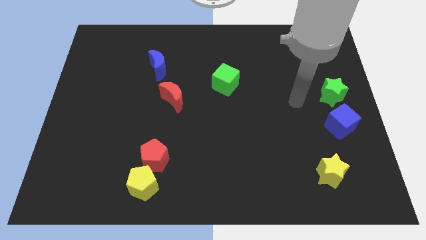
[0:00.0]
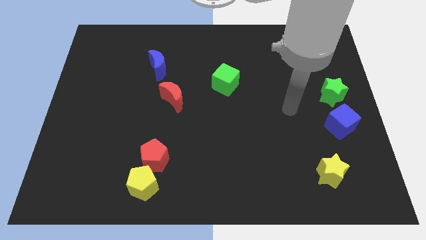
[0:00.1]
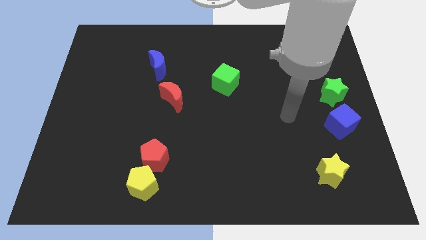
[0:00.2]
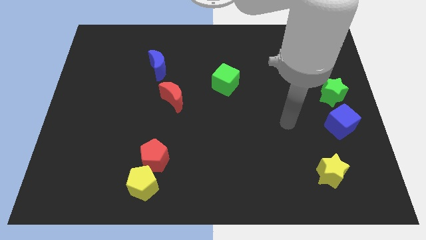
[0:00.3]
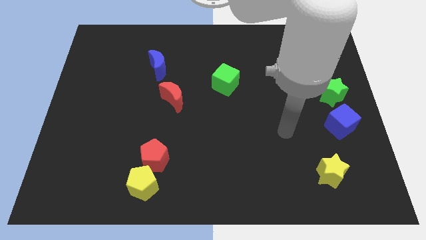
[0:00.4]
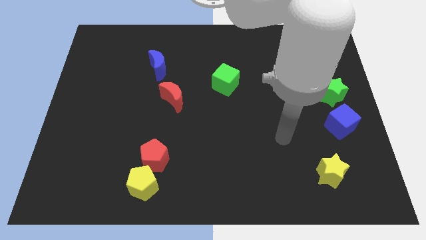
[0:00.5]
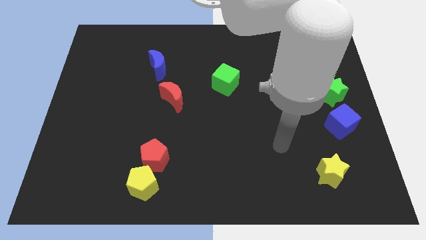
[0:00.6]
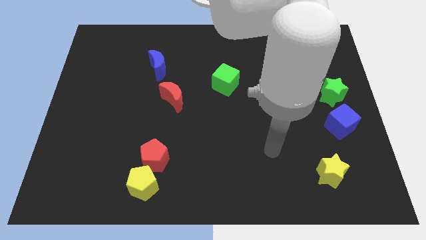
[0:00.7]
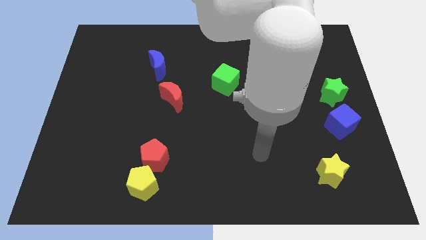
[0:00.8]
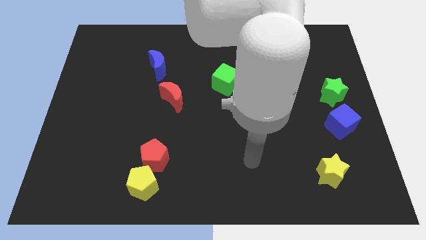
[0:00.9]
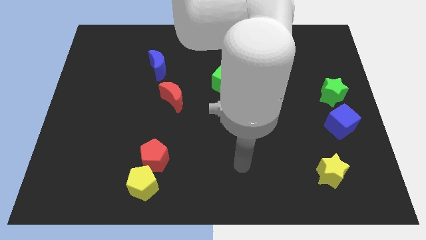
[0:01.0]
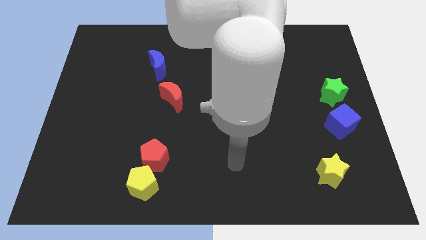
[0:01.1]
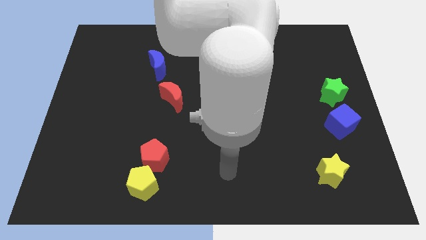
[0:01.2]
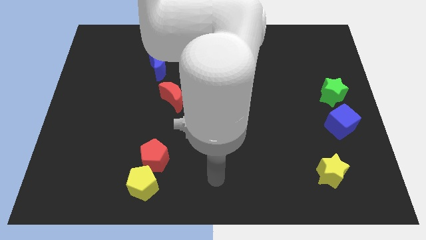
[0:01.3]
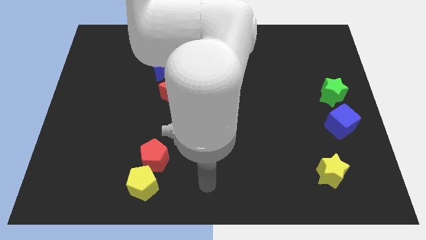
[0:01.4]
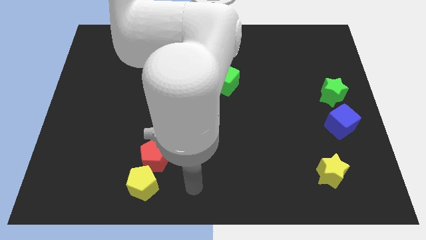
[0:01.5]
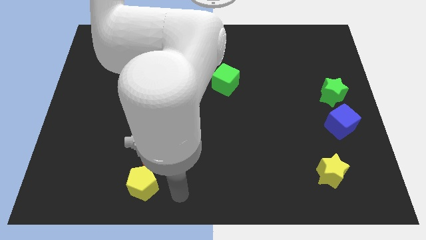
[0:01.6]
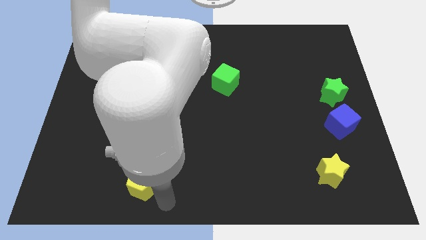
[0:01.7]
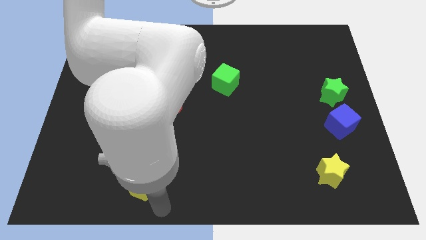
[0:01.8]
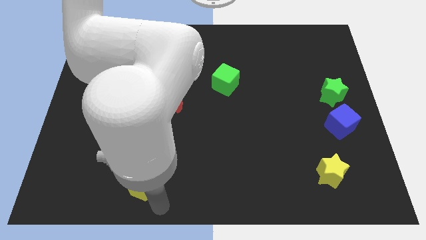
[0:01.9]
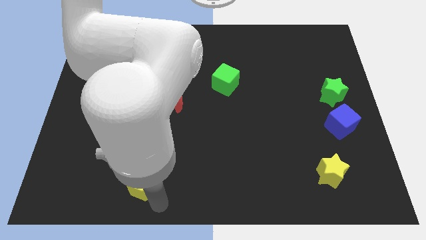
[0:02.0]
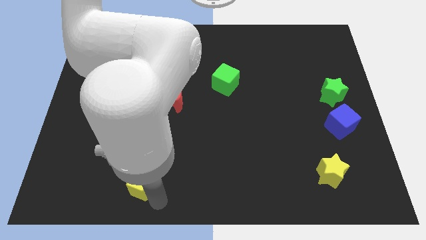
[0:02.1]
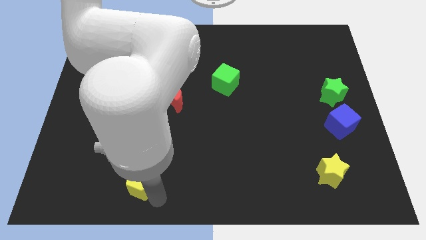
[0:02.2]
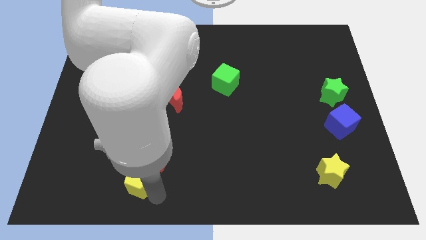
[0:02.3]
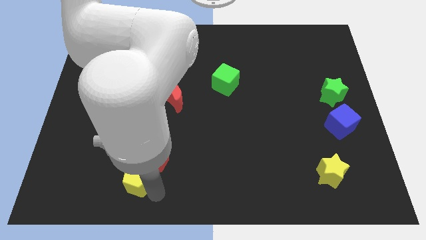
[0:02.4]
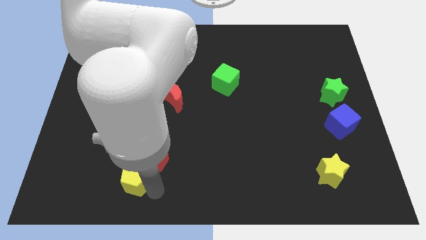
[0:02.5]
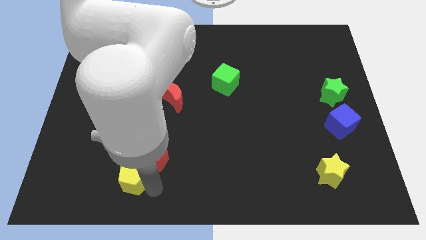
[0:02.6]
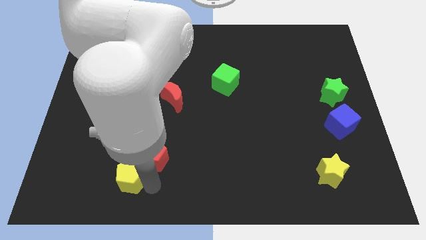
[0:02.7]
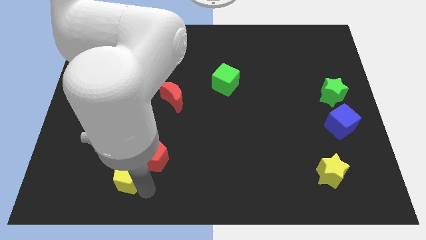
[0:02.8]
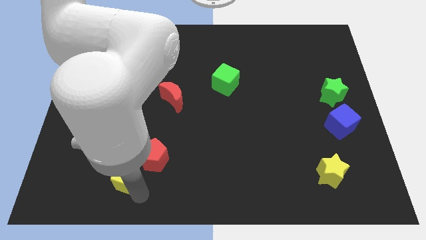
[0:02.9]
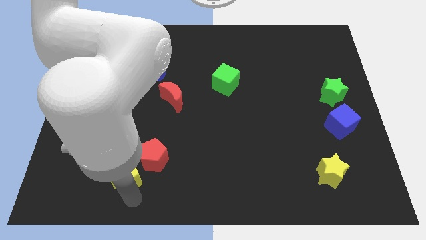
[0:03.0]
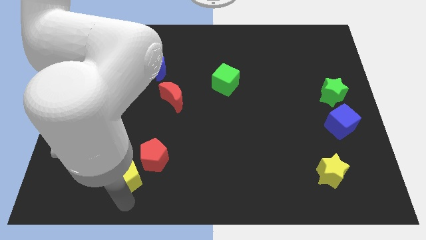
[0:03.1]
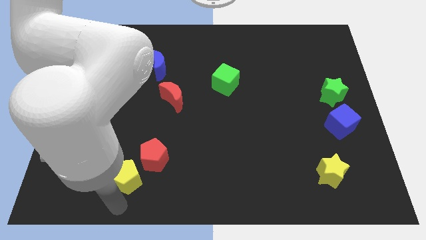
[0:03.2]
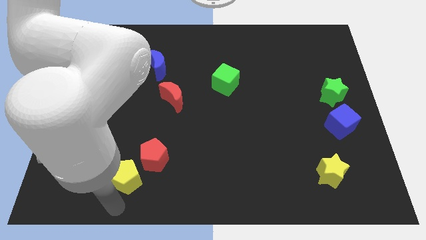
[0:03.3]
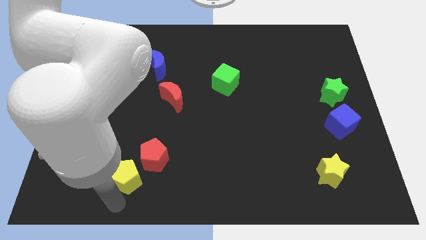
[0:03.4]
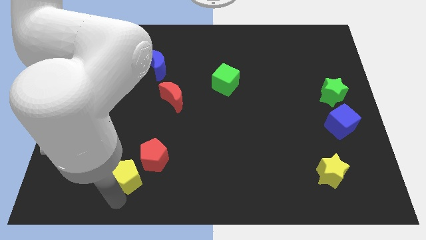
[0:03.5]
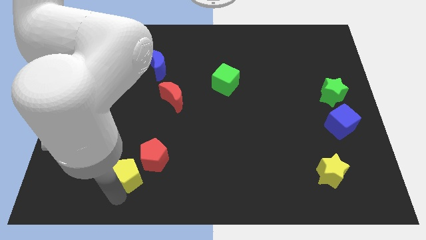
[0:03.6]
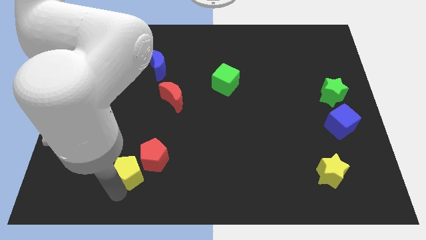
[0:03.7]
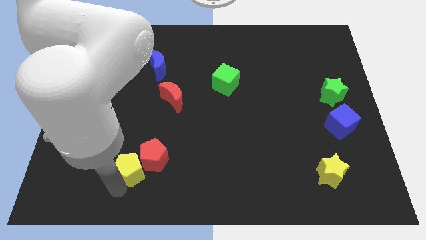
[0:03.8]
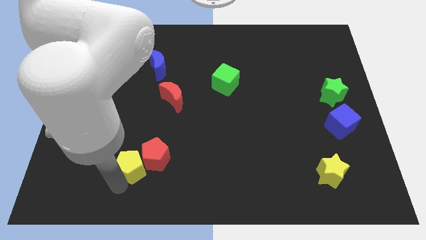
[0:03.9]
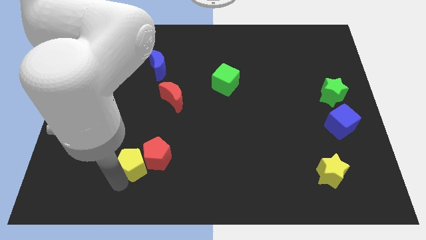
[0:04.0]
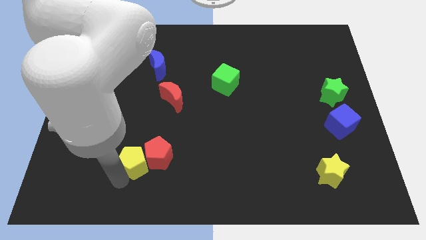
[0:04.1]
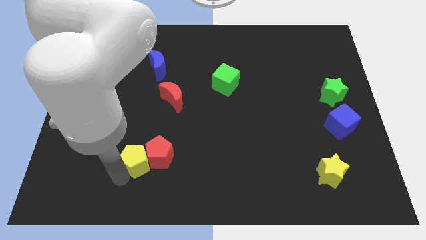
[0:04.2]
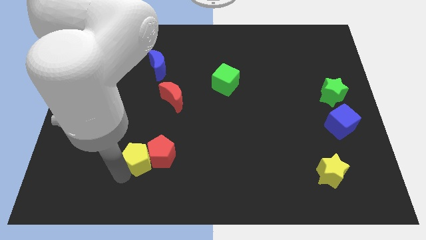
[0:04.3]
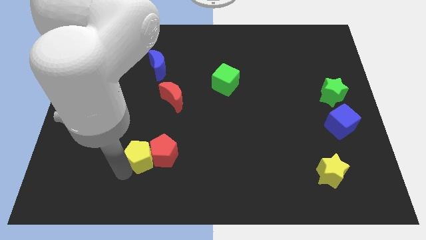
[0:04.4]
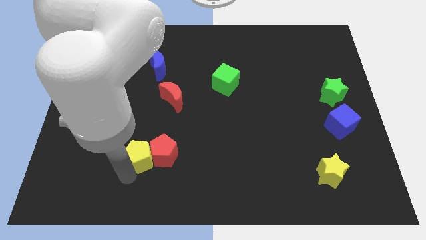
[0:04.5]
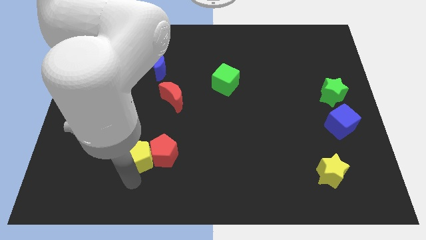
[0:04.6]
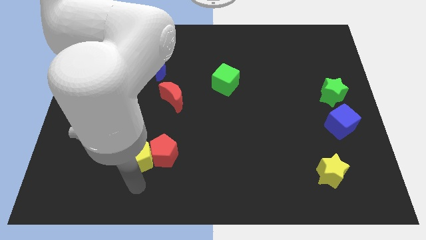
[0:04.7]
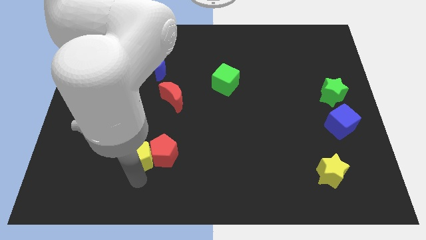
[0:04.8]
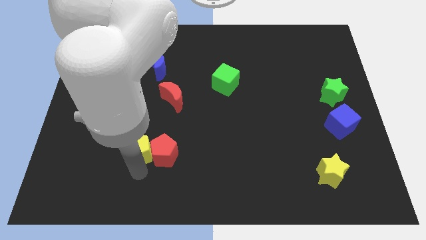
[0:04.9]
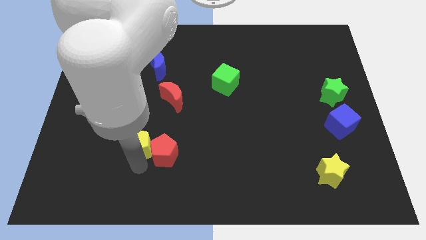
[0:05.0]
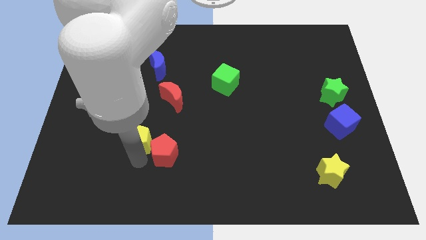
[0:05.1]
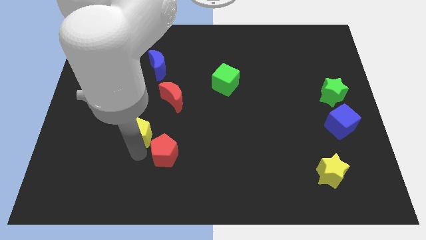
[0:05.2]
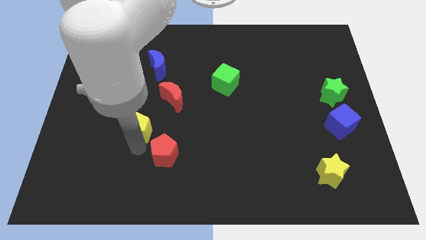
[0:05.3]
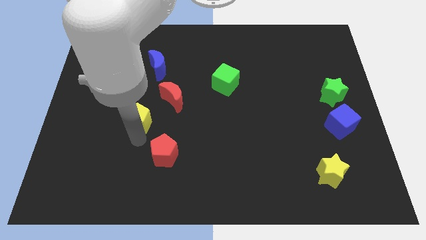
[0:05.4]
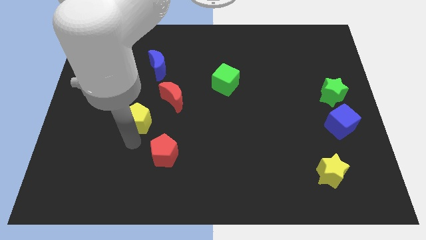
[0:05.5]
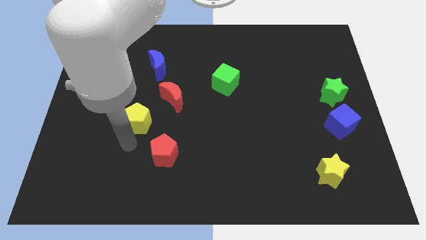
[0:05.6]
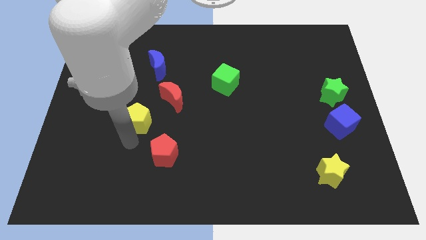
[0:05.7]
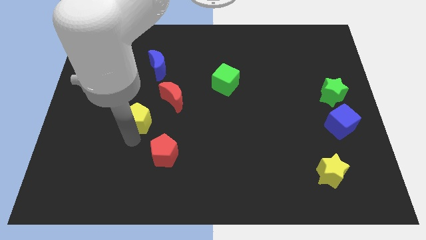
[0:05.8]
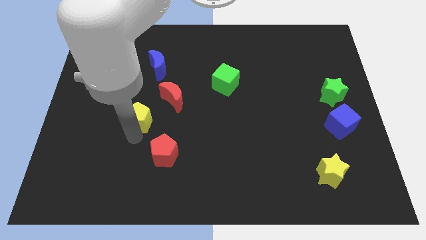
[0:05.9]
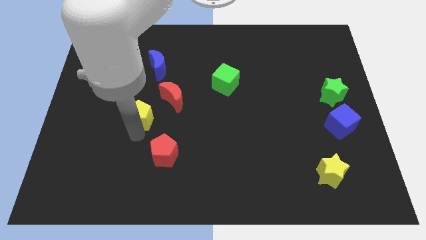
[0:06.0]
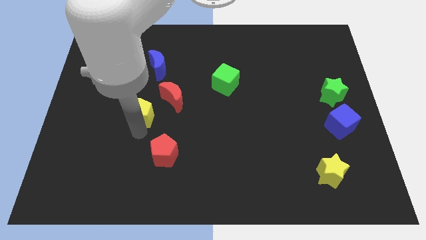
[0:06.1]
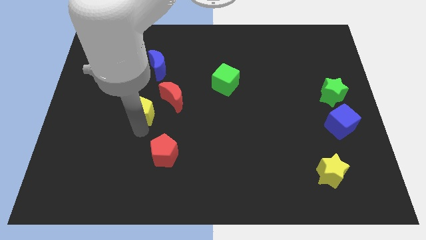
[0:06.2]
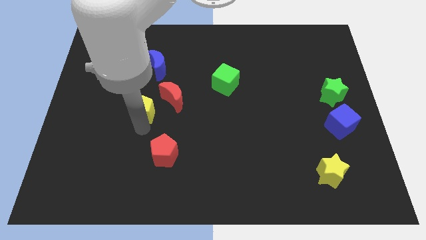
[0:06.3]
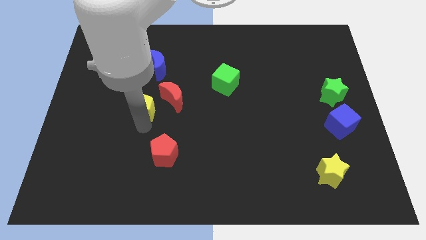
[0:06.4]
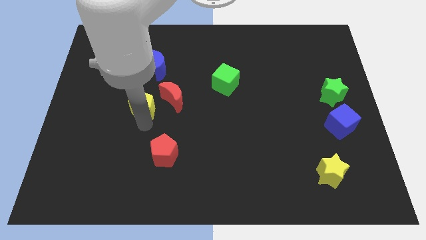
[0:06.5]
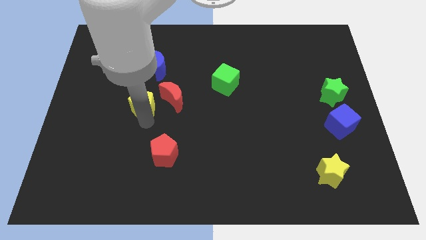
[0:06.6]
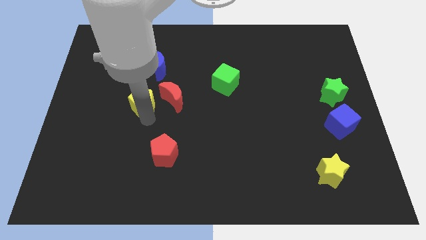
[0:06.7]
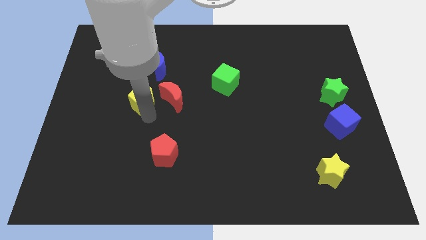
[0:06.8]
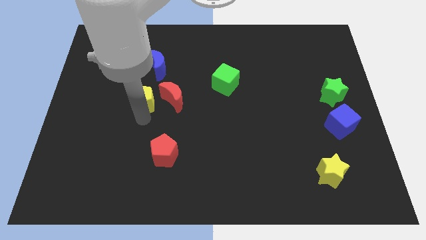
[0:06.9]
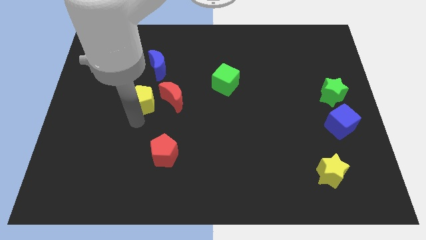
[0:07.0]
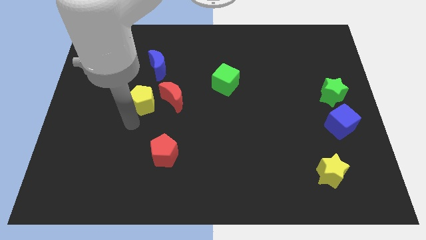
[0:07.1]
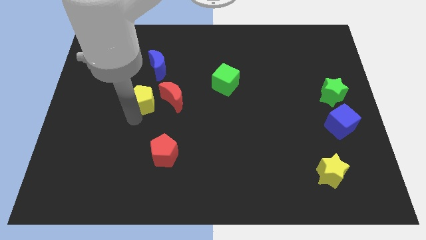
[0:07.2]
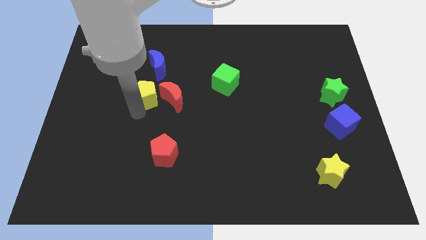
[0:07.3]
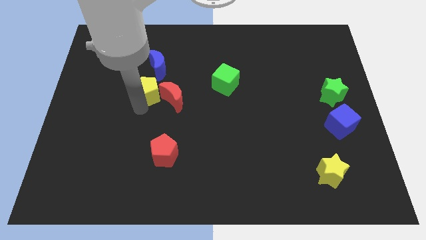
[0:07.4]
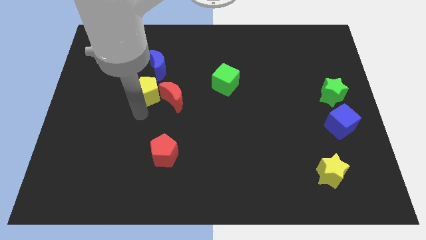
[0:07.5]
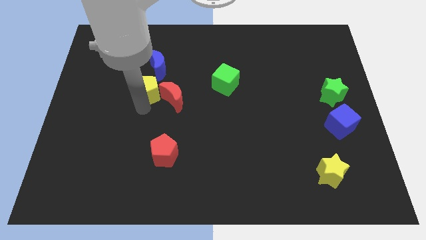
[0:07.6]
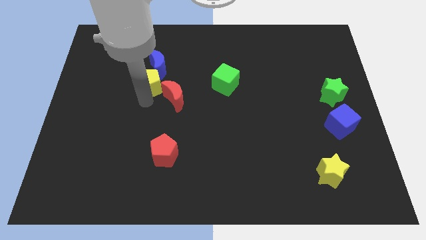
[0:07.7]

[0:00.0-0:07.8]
move the yellow pentagon next to the blue moon
